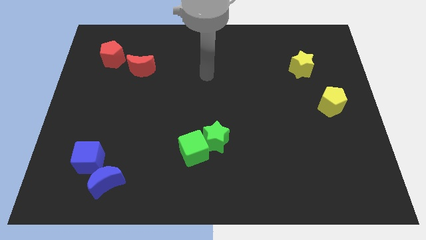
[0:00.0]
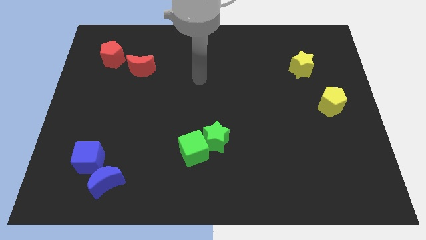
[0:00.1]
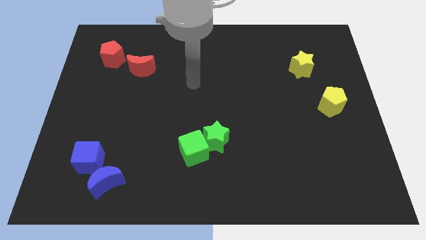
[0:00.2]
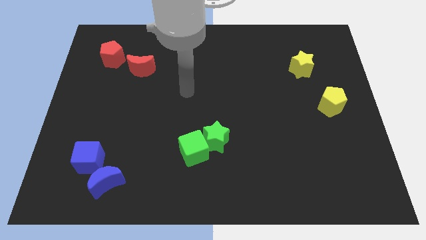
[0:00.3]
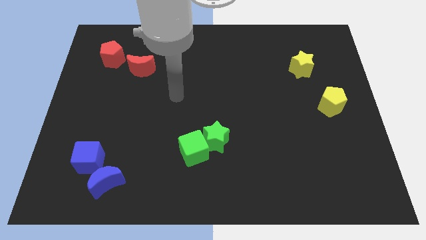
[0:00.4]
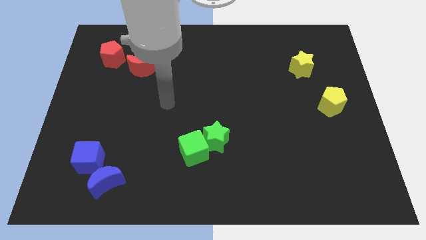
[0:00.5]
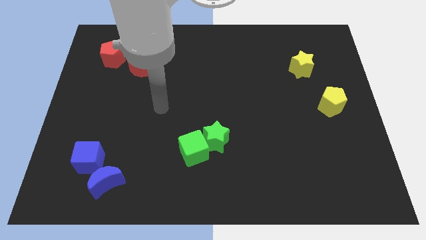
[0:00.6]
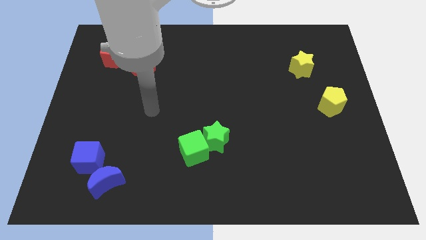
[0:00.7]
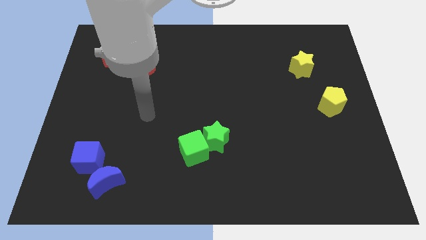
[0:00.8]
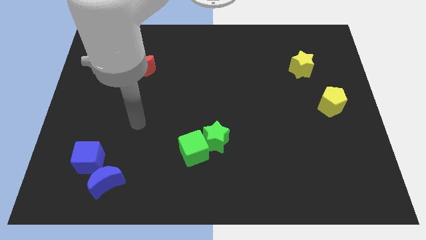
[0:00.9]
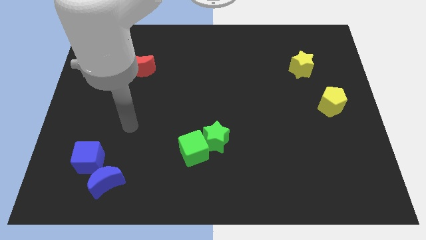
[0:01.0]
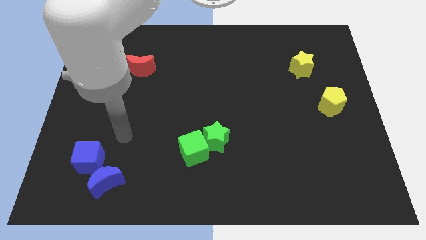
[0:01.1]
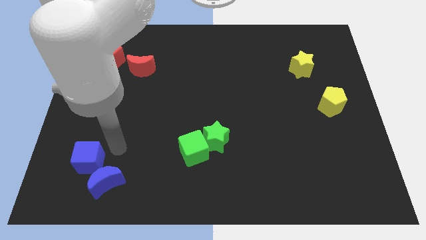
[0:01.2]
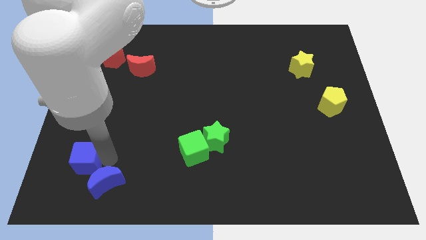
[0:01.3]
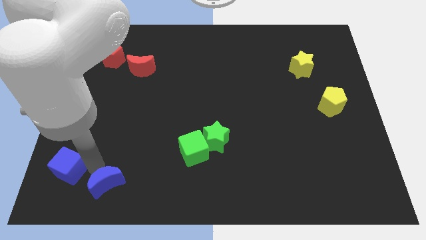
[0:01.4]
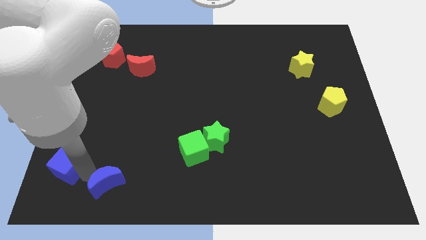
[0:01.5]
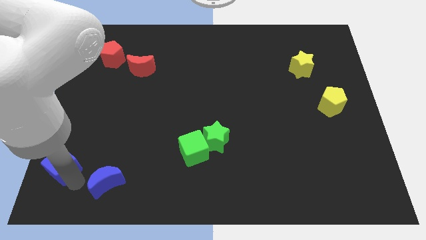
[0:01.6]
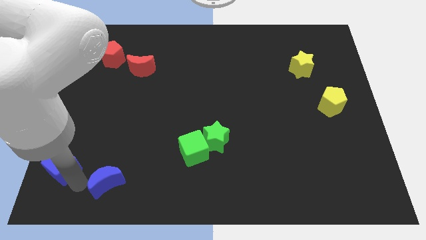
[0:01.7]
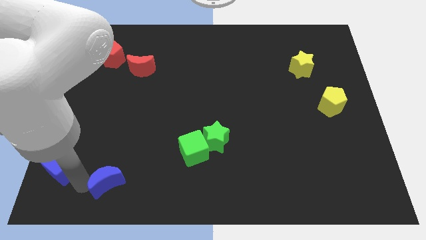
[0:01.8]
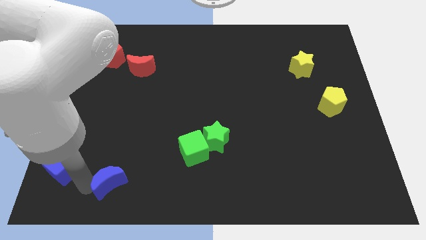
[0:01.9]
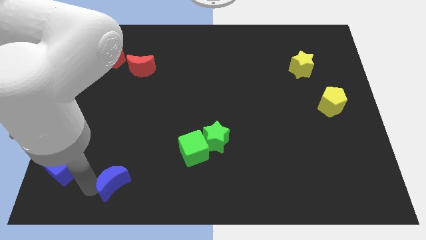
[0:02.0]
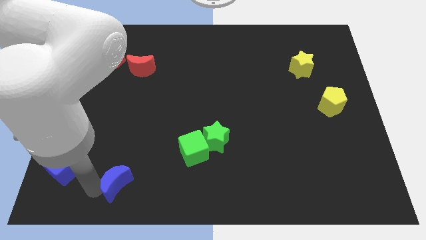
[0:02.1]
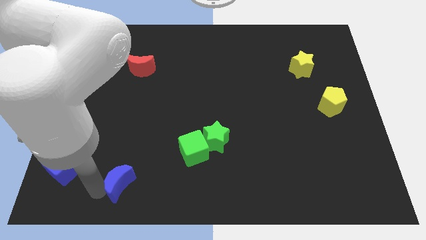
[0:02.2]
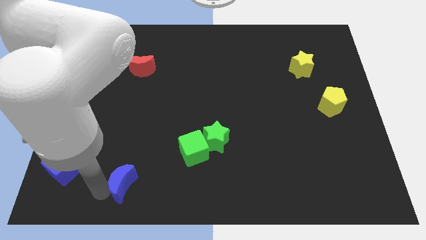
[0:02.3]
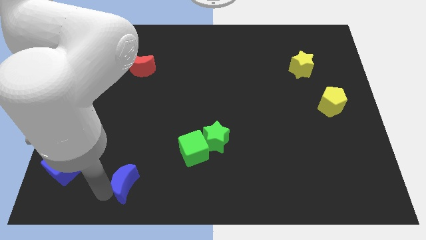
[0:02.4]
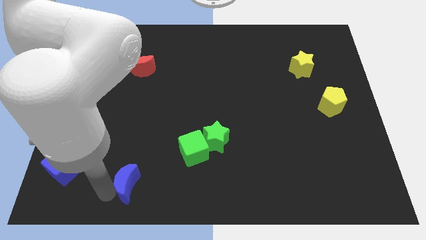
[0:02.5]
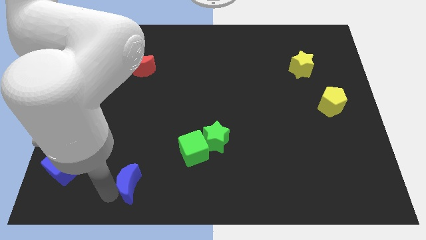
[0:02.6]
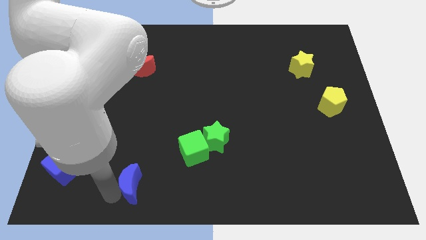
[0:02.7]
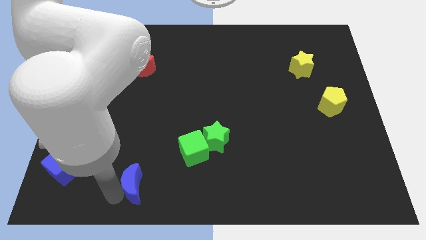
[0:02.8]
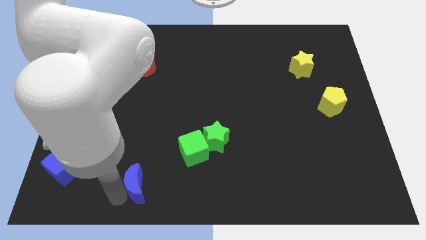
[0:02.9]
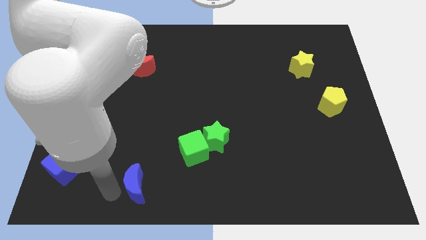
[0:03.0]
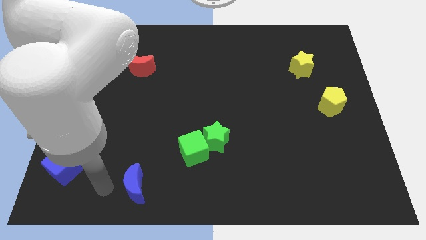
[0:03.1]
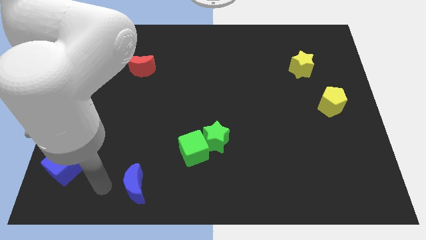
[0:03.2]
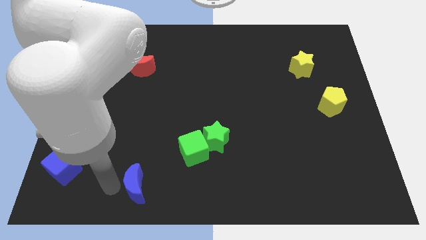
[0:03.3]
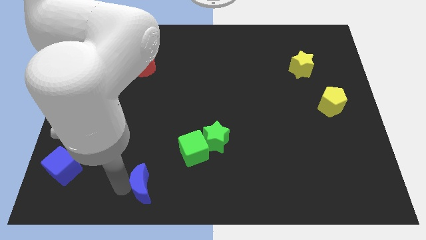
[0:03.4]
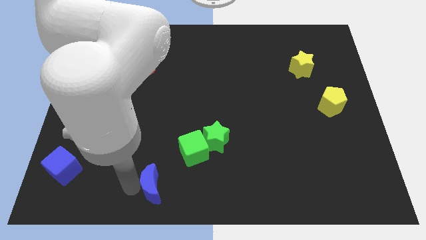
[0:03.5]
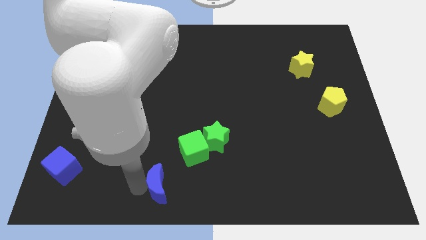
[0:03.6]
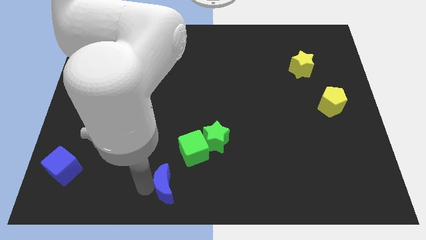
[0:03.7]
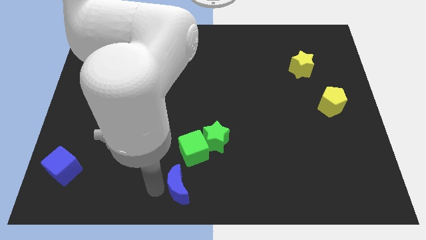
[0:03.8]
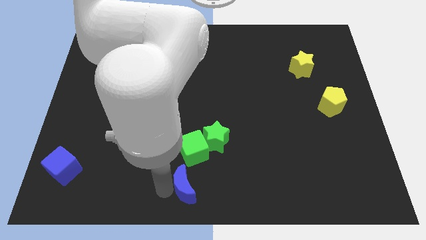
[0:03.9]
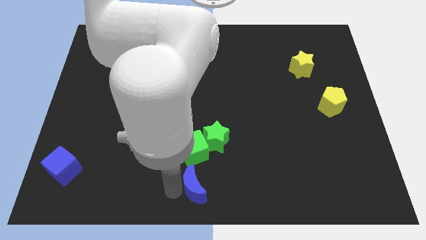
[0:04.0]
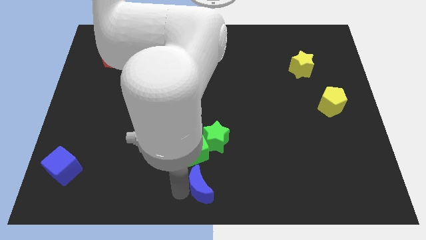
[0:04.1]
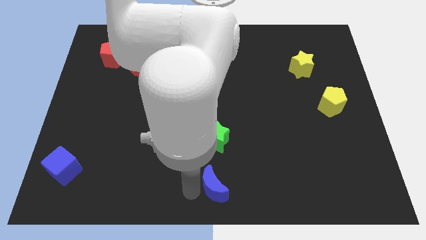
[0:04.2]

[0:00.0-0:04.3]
slide the blue moon right

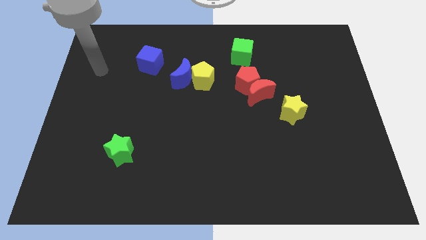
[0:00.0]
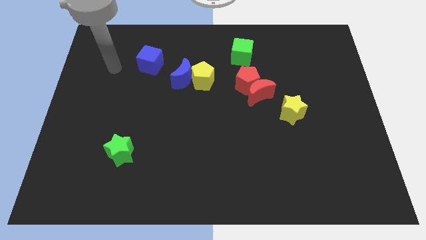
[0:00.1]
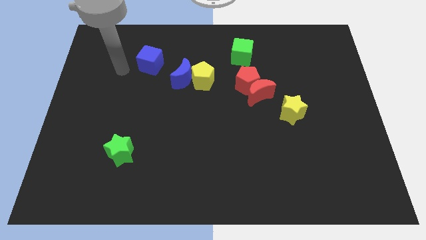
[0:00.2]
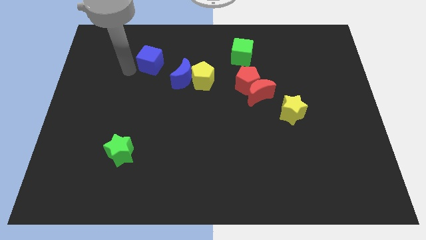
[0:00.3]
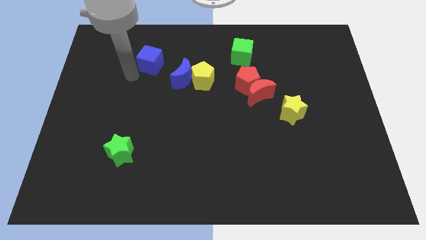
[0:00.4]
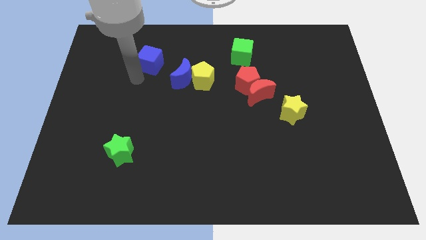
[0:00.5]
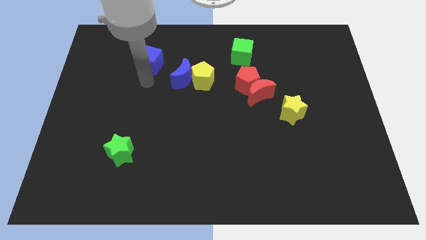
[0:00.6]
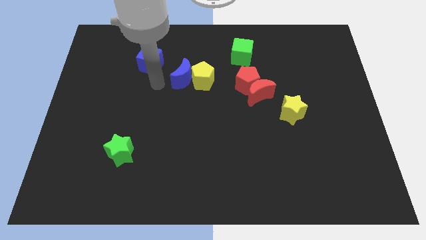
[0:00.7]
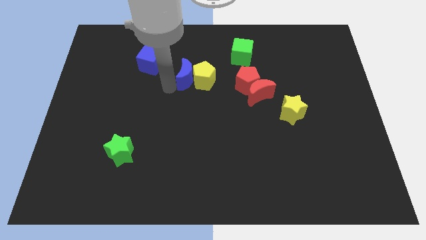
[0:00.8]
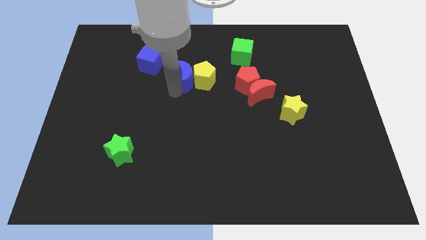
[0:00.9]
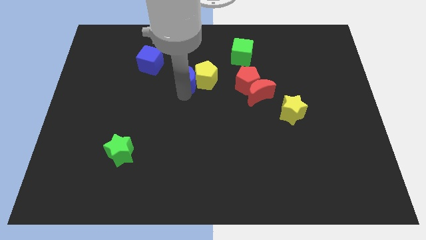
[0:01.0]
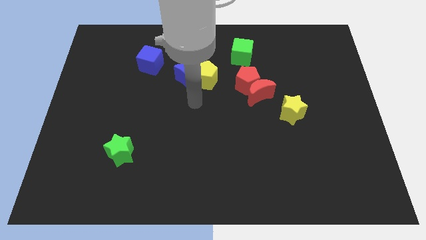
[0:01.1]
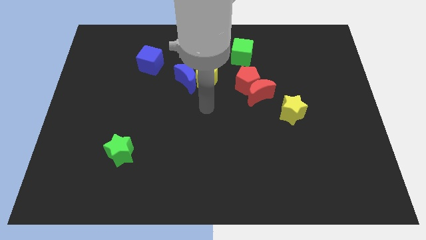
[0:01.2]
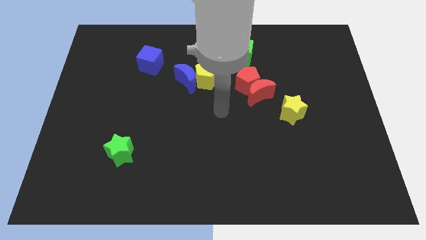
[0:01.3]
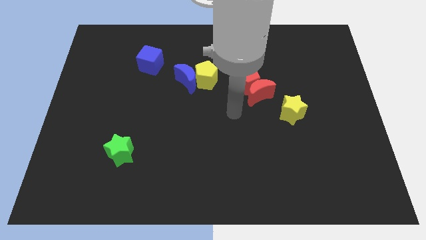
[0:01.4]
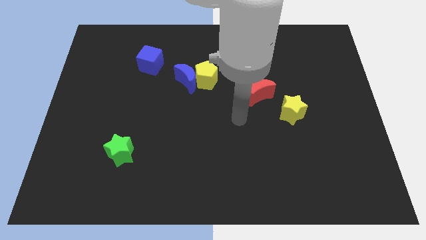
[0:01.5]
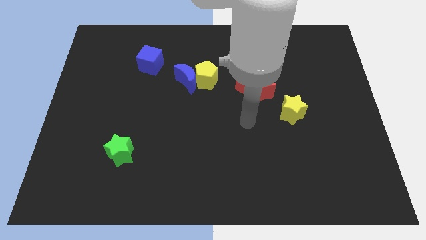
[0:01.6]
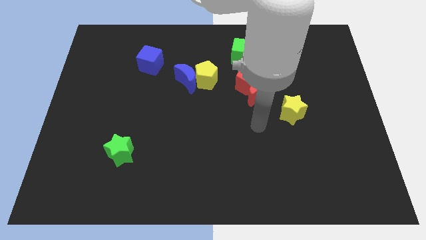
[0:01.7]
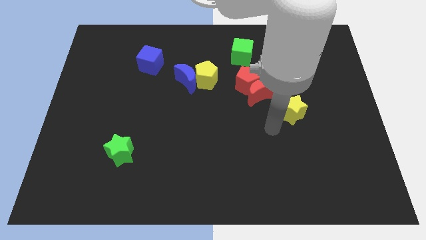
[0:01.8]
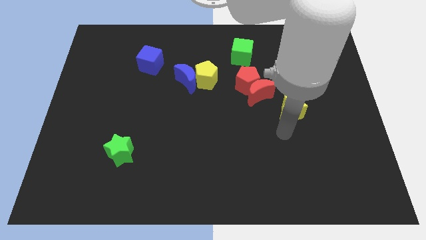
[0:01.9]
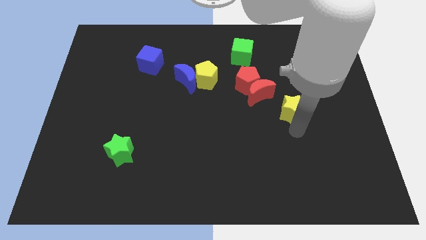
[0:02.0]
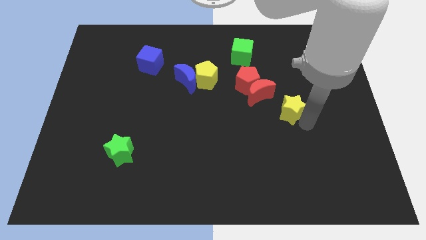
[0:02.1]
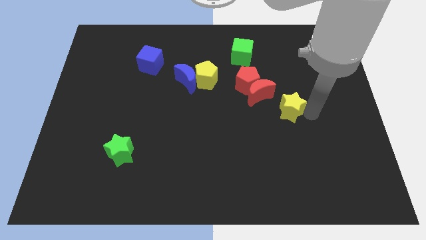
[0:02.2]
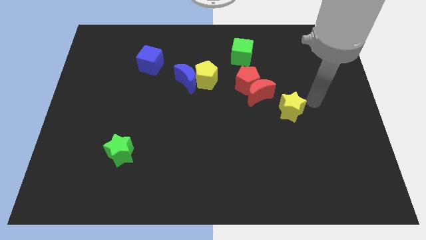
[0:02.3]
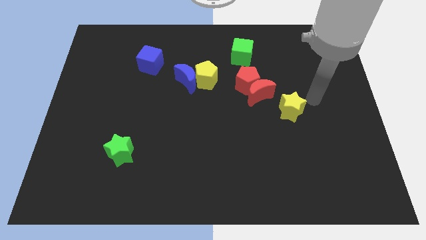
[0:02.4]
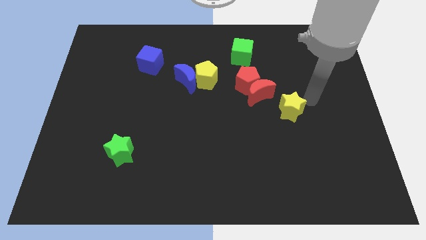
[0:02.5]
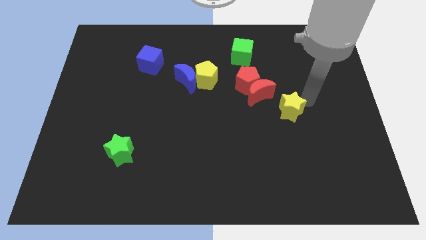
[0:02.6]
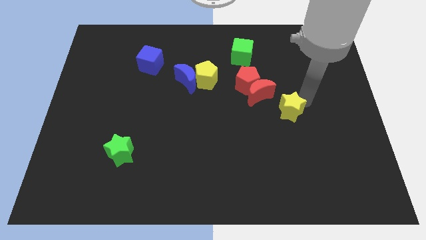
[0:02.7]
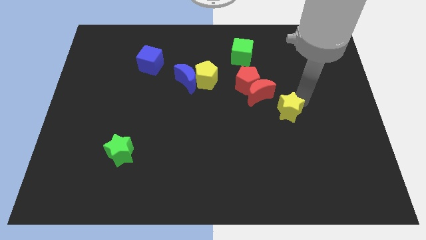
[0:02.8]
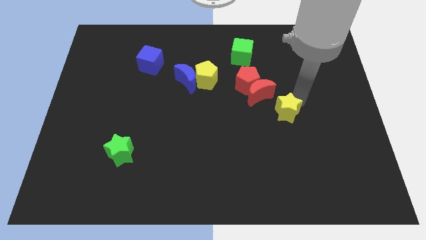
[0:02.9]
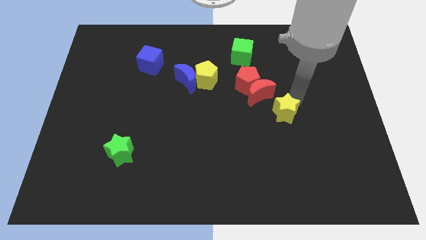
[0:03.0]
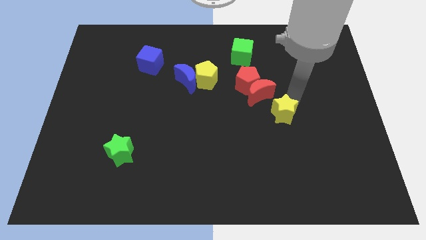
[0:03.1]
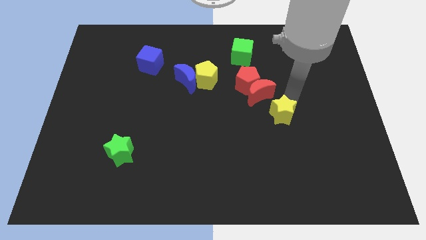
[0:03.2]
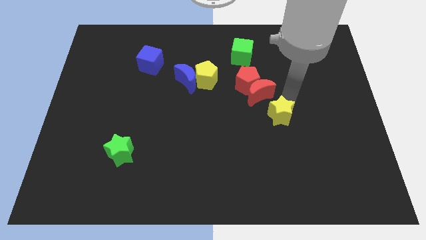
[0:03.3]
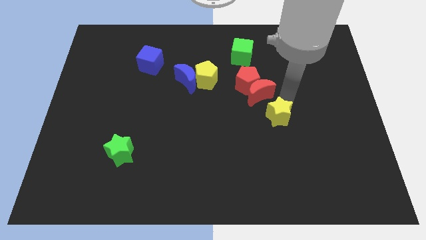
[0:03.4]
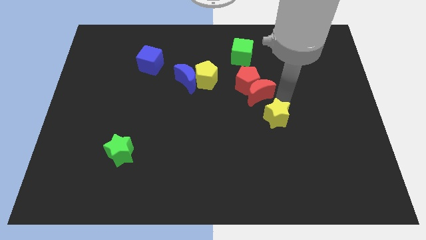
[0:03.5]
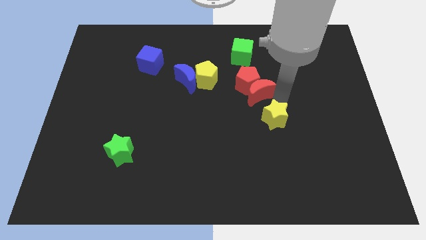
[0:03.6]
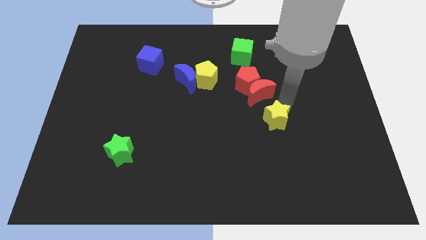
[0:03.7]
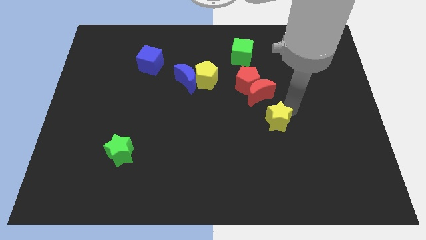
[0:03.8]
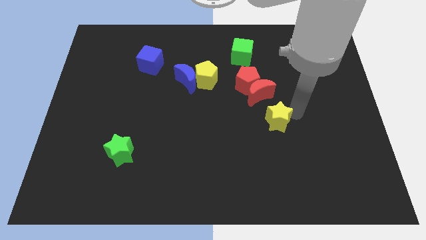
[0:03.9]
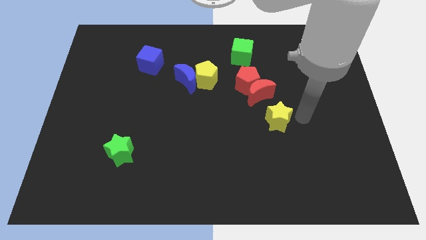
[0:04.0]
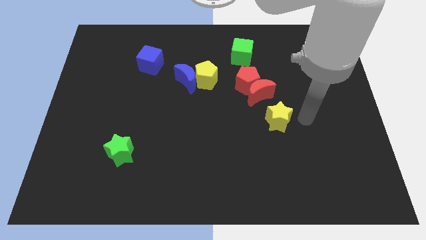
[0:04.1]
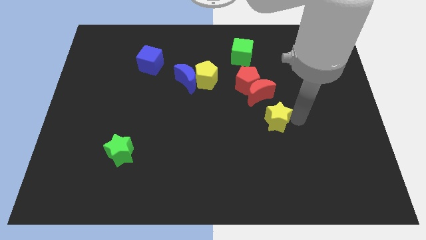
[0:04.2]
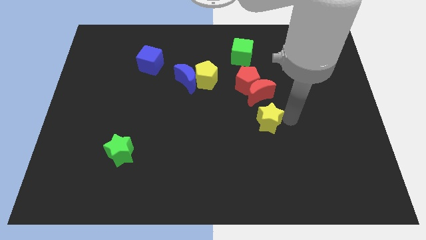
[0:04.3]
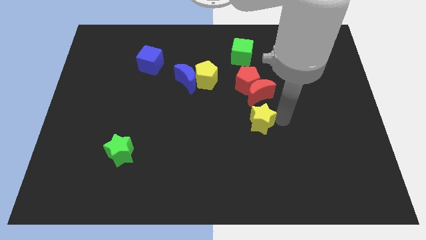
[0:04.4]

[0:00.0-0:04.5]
slightly push the yellow star left
